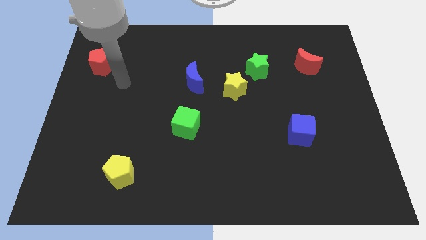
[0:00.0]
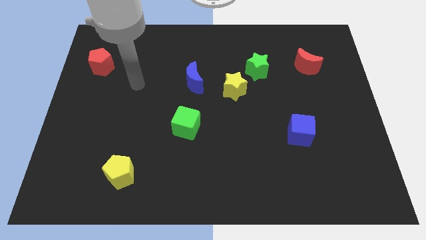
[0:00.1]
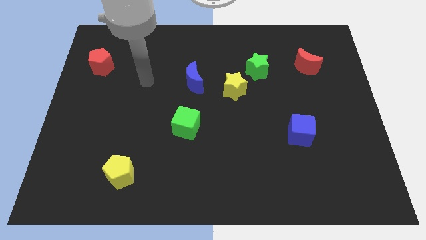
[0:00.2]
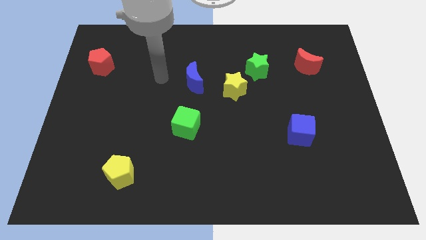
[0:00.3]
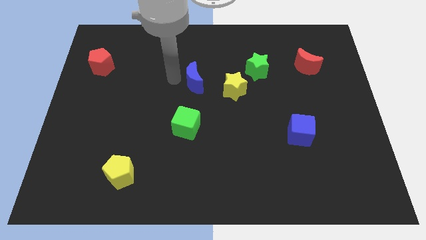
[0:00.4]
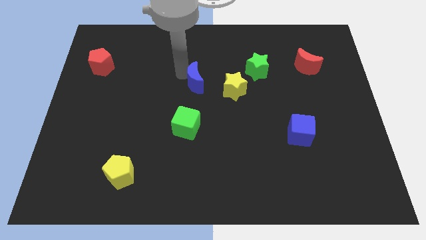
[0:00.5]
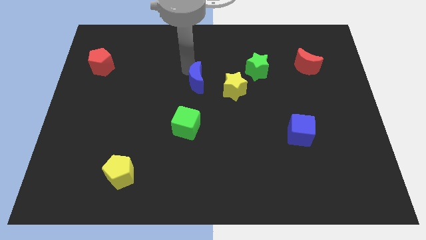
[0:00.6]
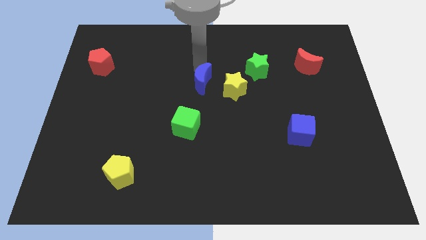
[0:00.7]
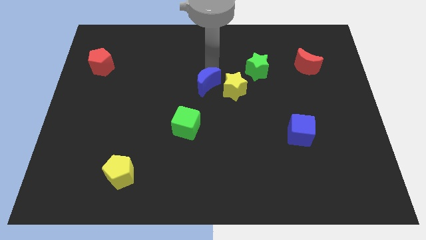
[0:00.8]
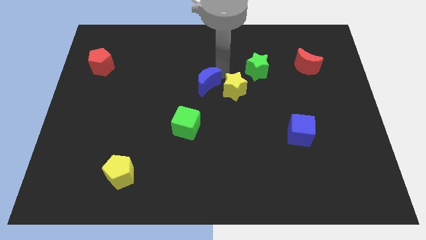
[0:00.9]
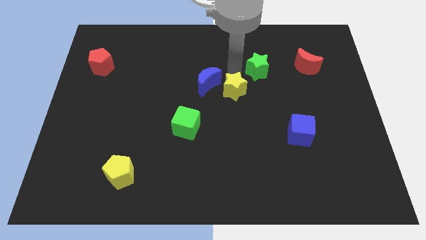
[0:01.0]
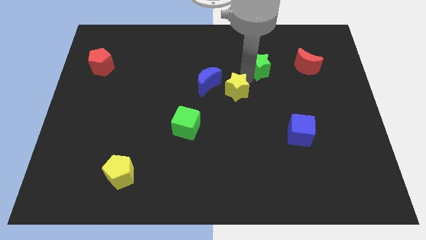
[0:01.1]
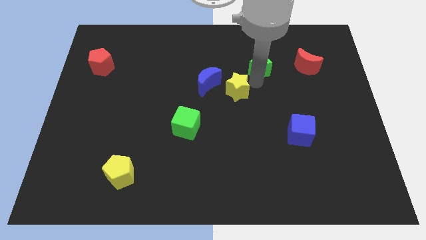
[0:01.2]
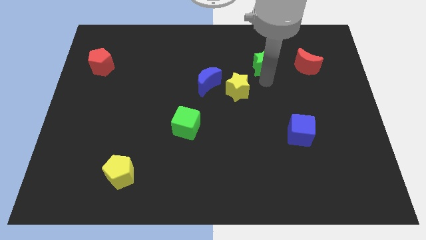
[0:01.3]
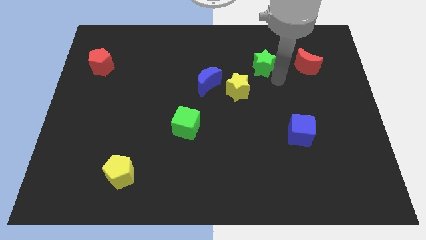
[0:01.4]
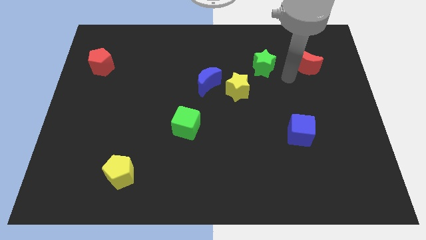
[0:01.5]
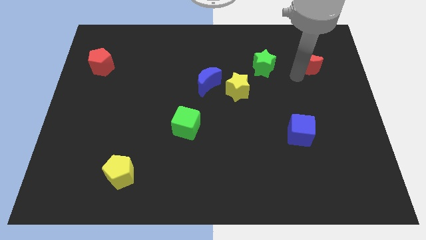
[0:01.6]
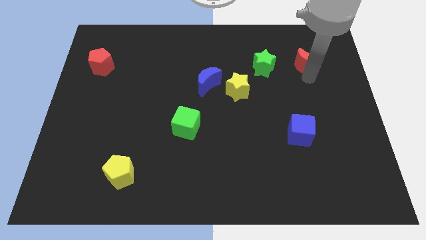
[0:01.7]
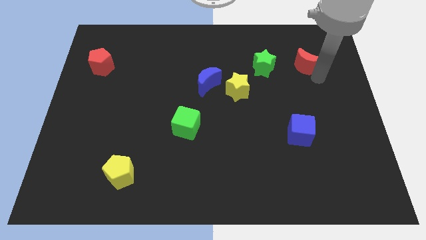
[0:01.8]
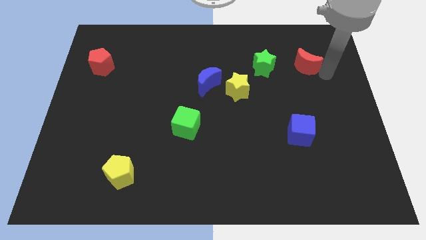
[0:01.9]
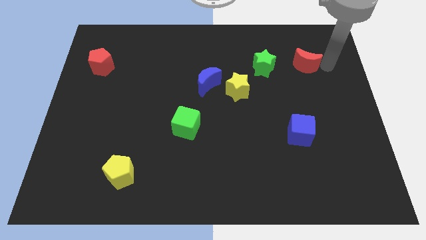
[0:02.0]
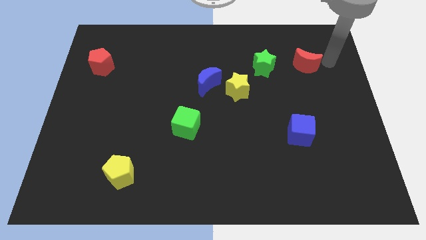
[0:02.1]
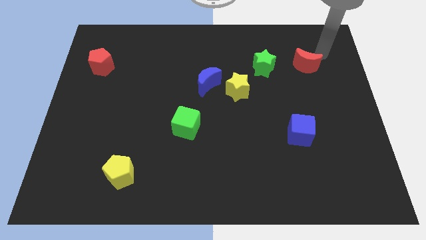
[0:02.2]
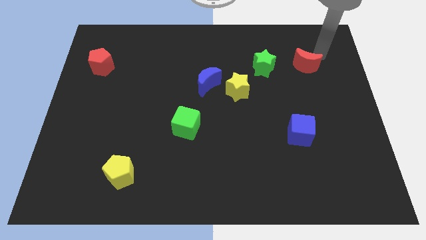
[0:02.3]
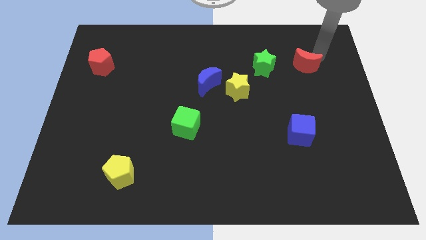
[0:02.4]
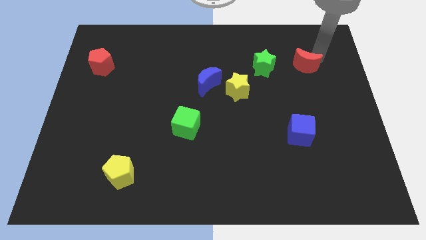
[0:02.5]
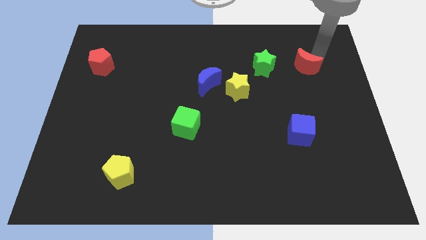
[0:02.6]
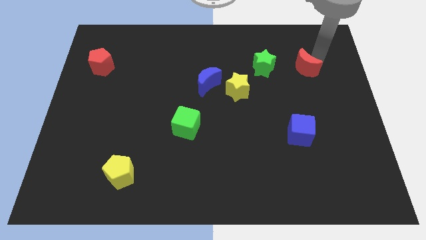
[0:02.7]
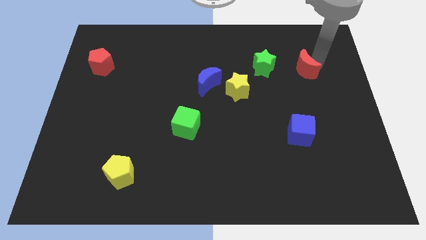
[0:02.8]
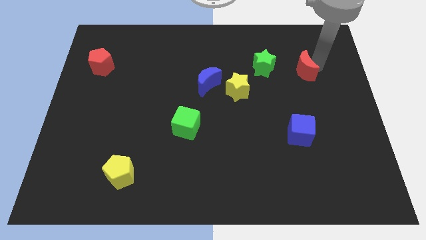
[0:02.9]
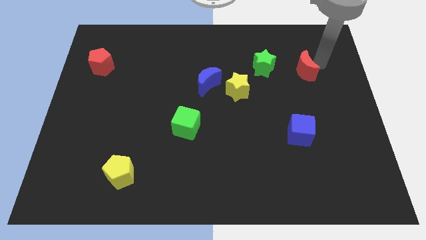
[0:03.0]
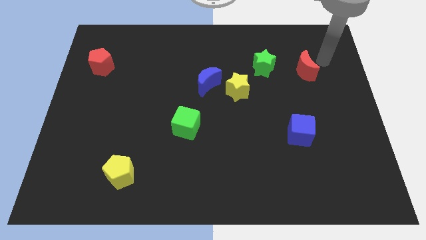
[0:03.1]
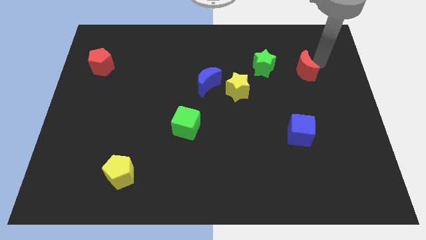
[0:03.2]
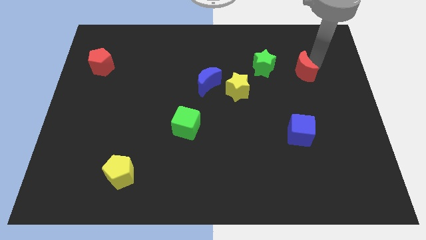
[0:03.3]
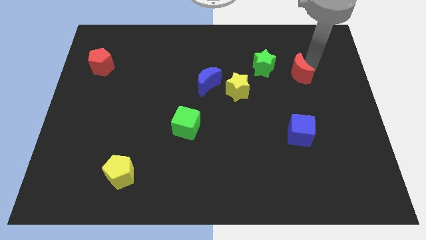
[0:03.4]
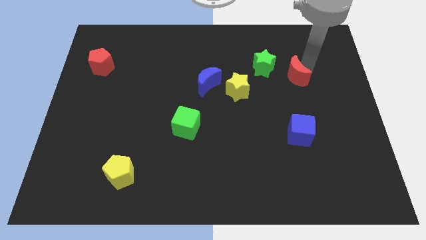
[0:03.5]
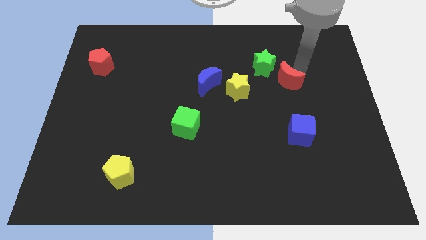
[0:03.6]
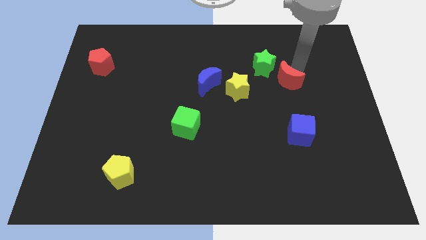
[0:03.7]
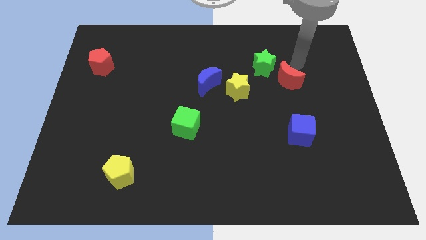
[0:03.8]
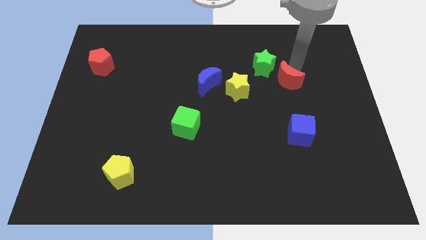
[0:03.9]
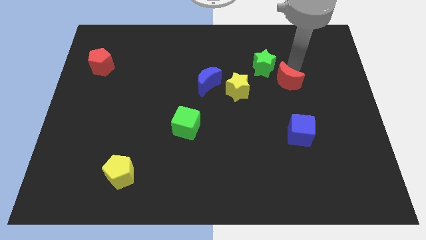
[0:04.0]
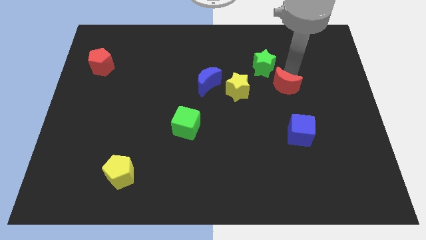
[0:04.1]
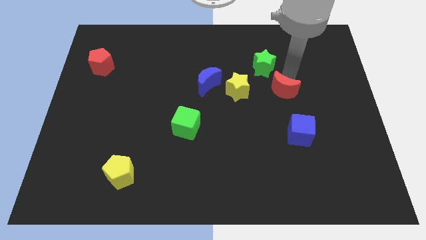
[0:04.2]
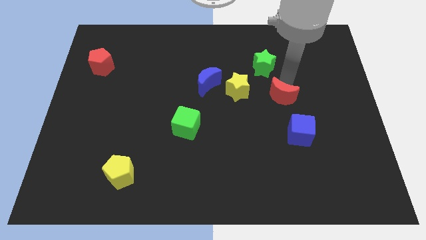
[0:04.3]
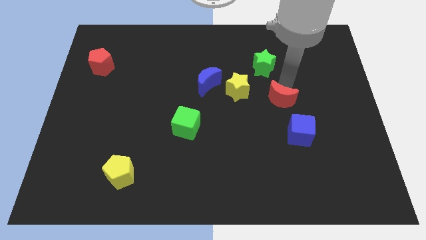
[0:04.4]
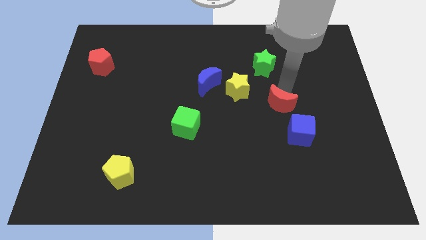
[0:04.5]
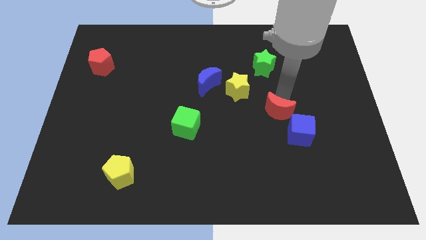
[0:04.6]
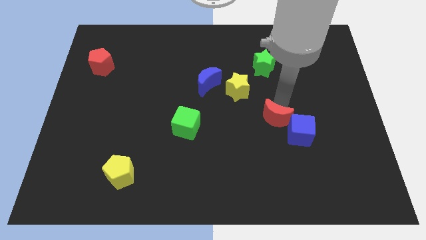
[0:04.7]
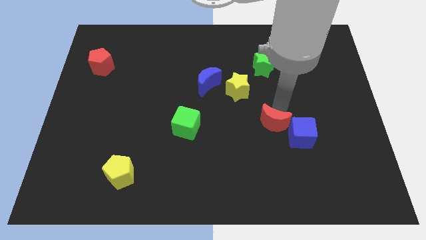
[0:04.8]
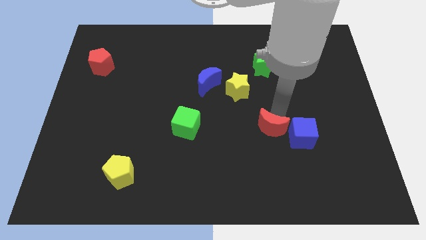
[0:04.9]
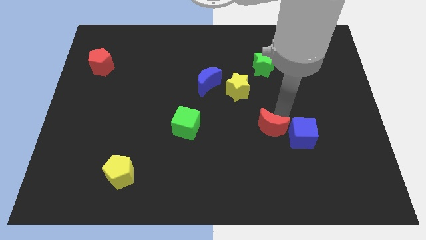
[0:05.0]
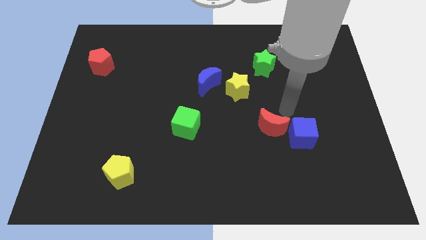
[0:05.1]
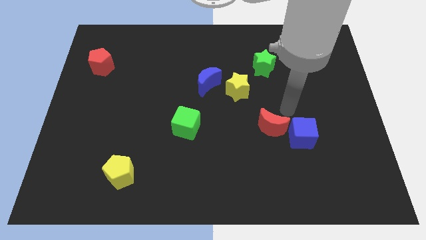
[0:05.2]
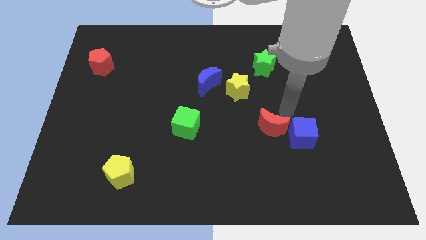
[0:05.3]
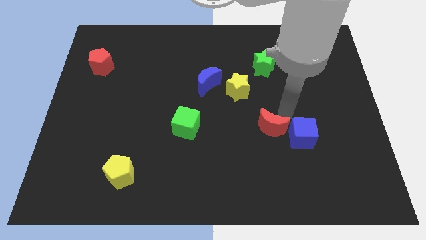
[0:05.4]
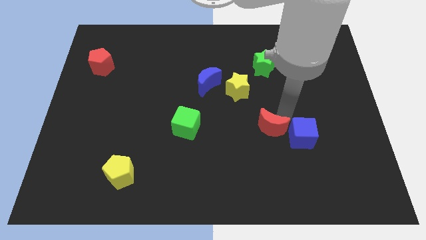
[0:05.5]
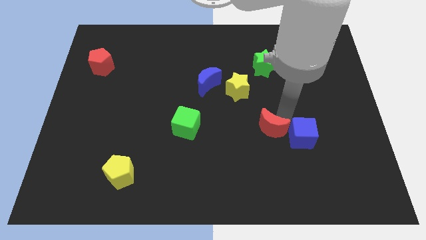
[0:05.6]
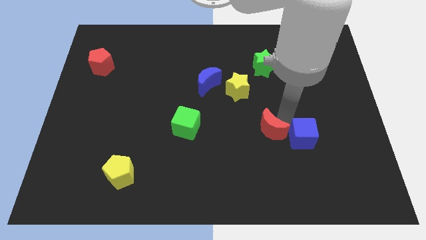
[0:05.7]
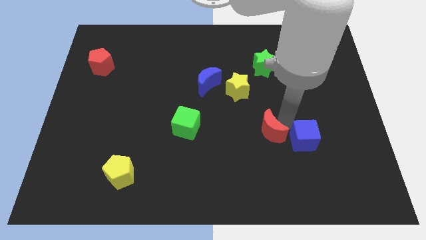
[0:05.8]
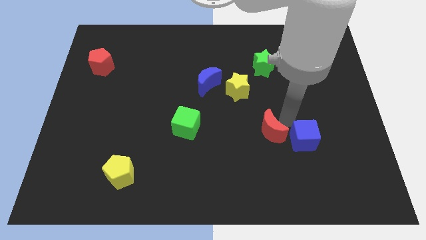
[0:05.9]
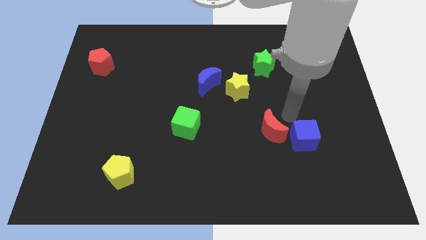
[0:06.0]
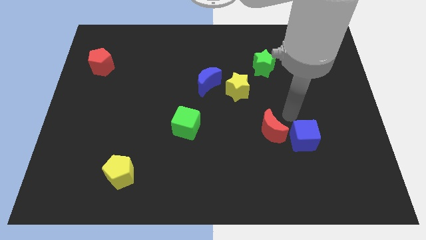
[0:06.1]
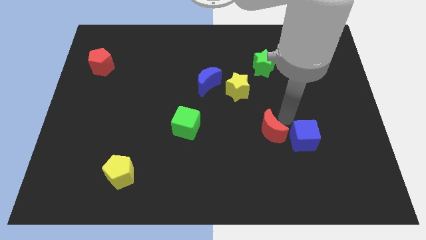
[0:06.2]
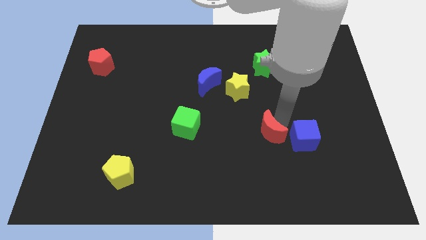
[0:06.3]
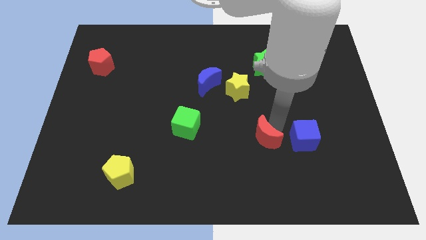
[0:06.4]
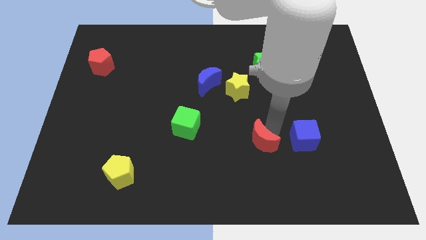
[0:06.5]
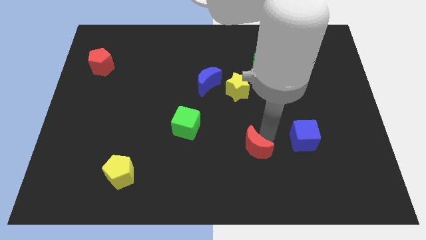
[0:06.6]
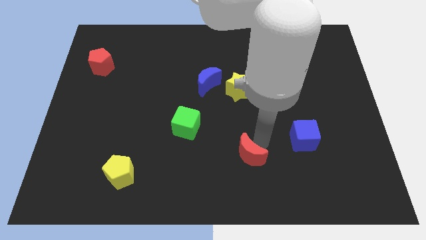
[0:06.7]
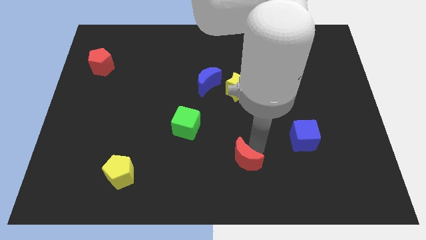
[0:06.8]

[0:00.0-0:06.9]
put the red moon to the bottom
